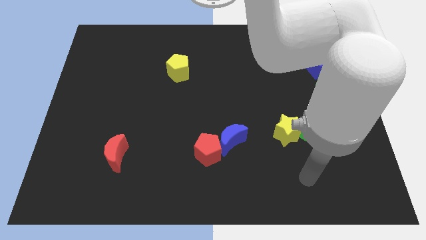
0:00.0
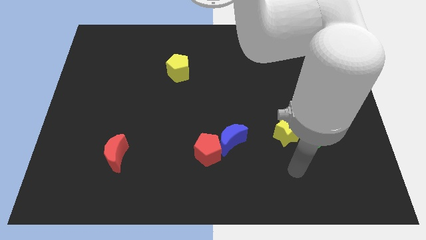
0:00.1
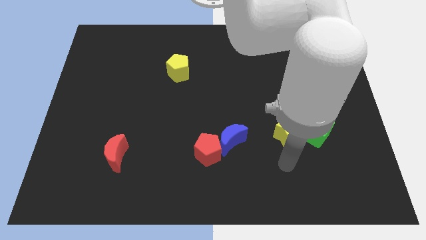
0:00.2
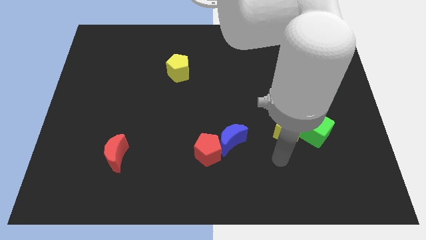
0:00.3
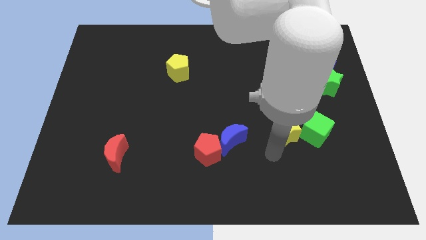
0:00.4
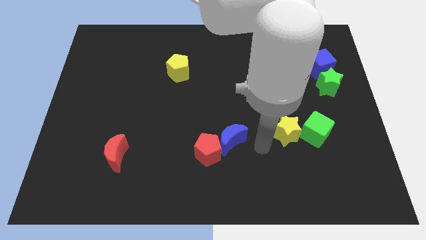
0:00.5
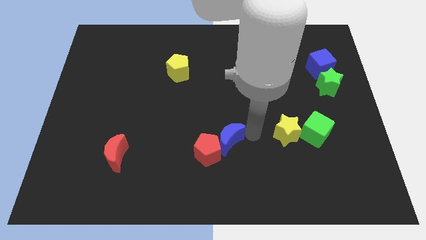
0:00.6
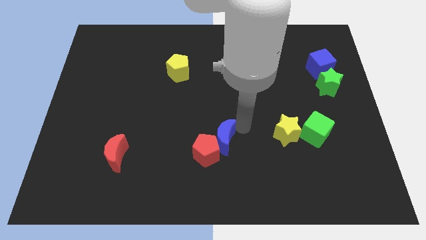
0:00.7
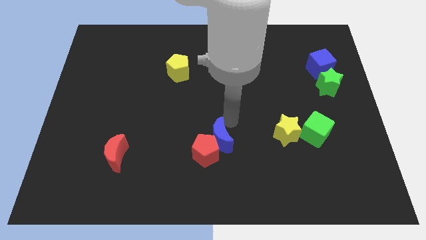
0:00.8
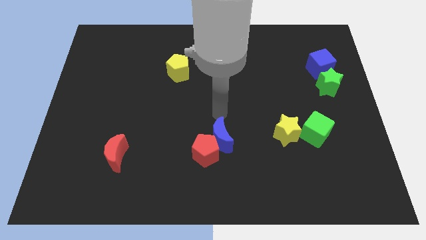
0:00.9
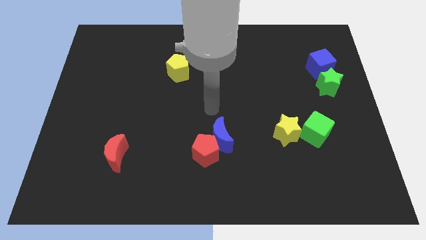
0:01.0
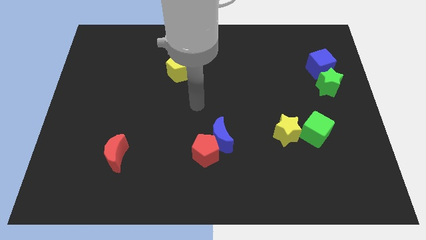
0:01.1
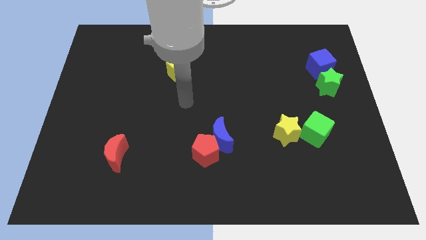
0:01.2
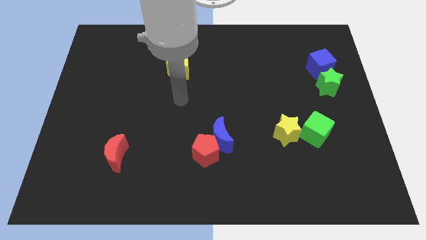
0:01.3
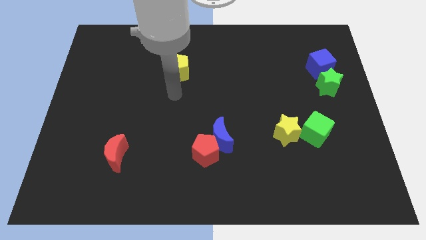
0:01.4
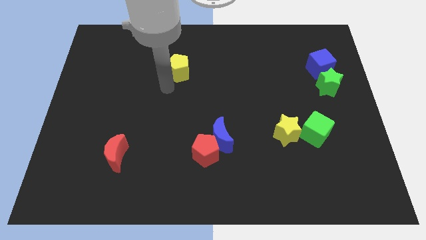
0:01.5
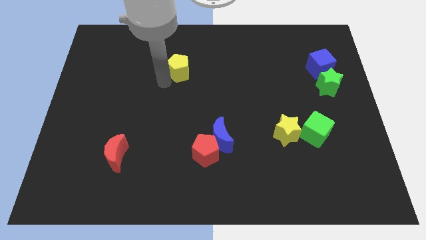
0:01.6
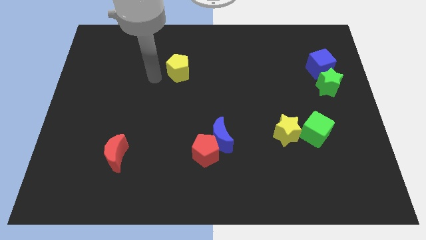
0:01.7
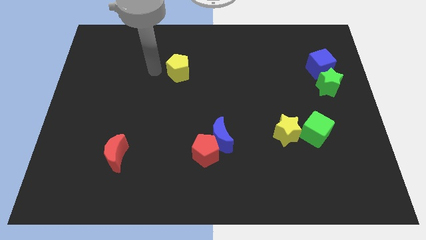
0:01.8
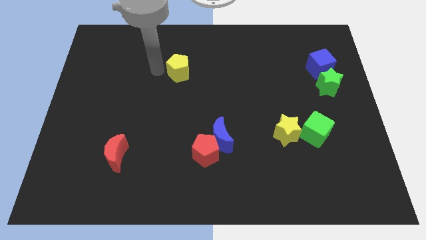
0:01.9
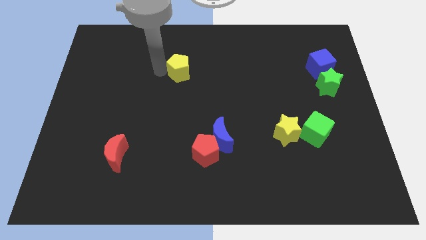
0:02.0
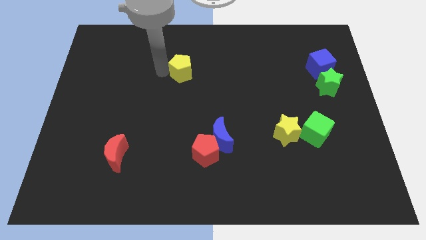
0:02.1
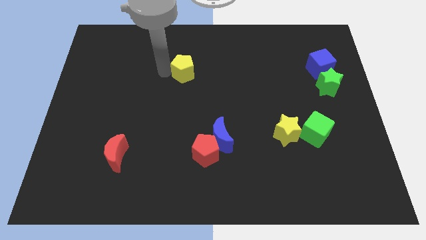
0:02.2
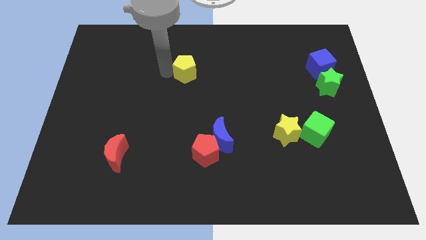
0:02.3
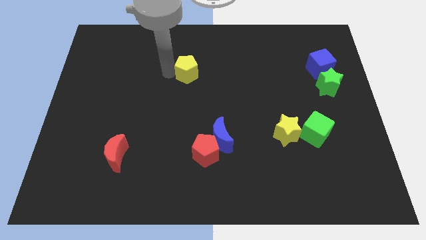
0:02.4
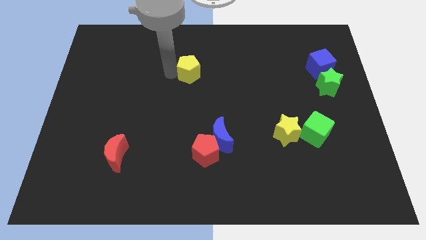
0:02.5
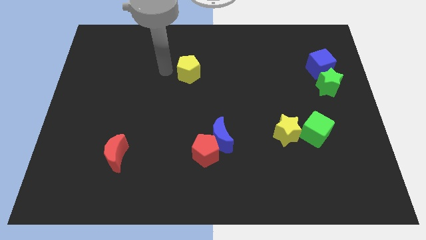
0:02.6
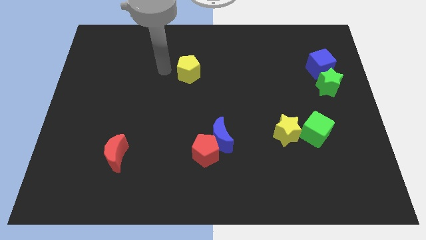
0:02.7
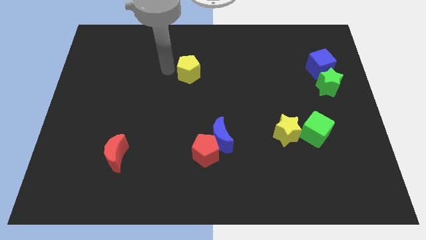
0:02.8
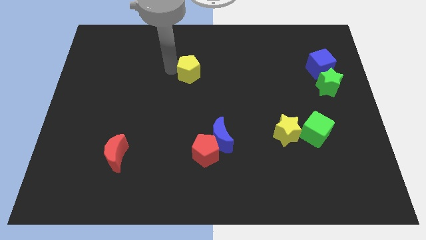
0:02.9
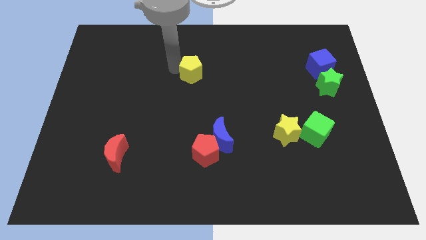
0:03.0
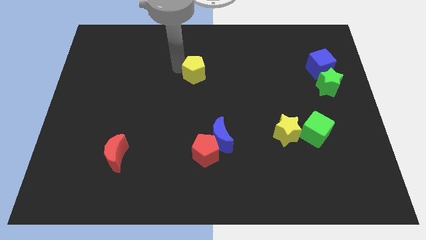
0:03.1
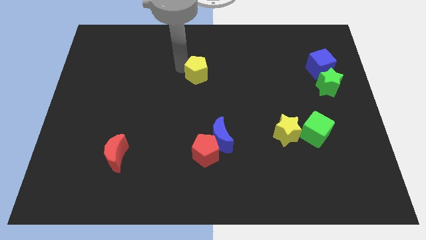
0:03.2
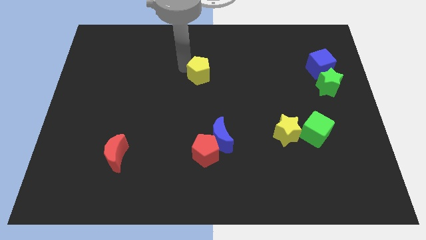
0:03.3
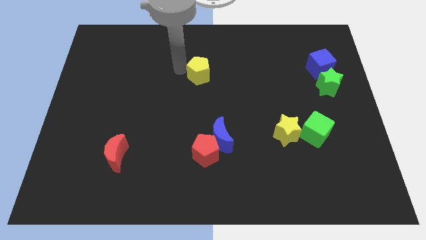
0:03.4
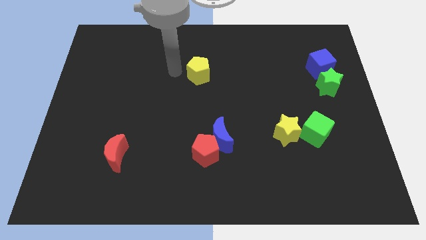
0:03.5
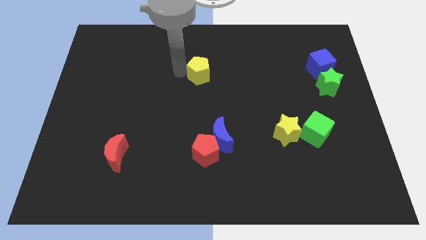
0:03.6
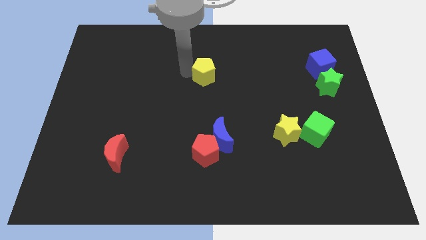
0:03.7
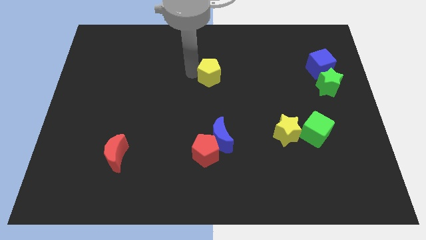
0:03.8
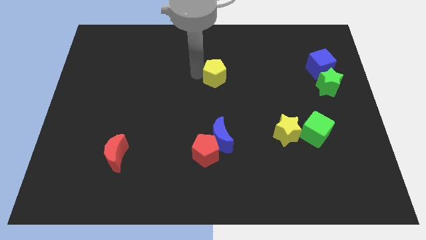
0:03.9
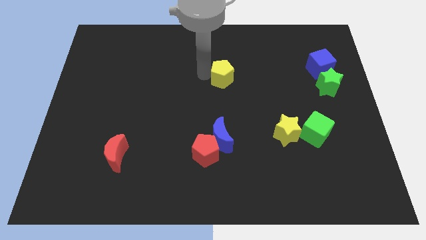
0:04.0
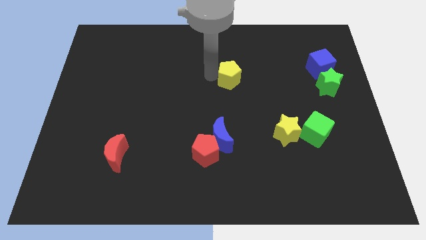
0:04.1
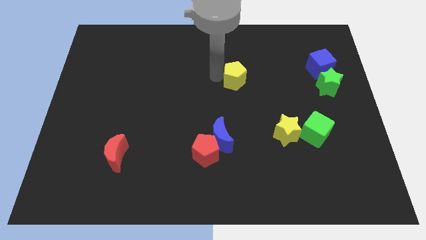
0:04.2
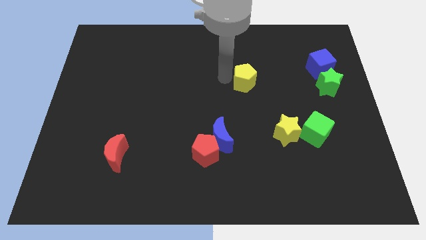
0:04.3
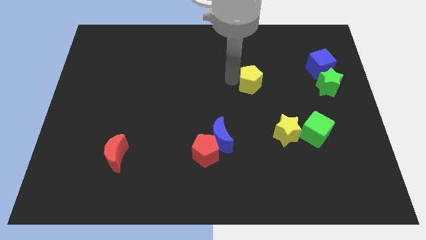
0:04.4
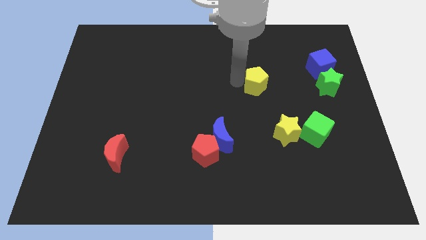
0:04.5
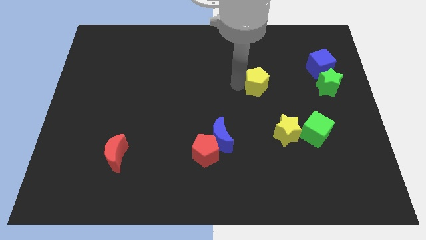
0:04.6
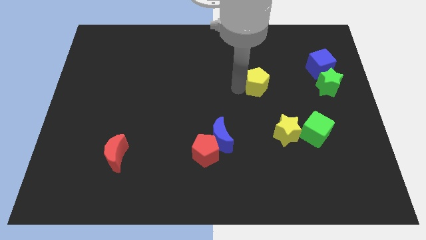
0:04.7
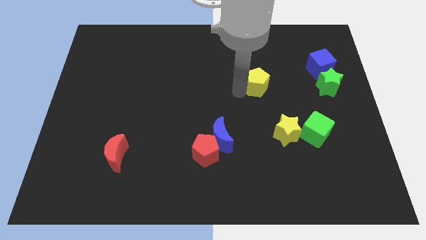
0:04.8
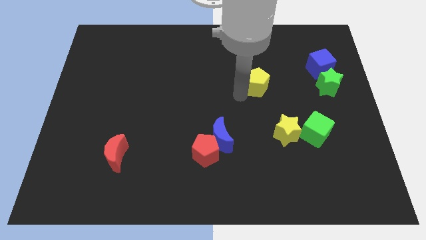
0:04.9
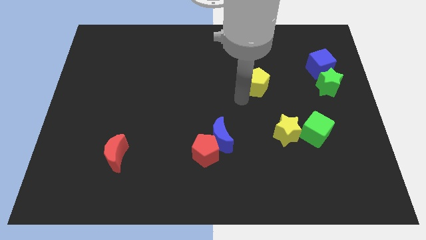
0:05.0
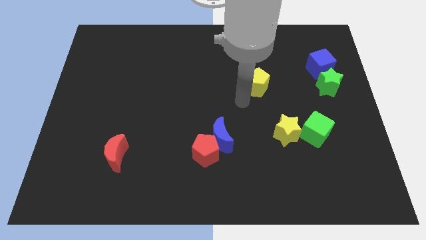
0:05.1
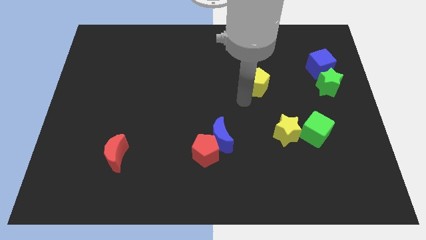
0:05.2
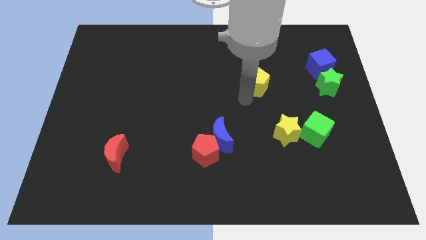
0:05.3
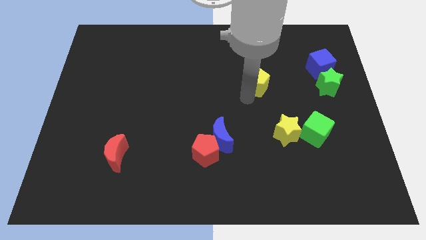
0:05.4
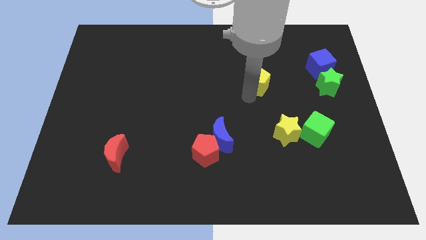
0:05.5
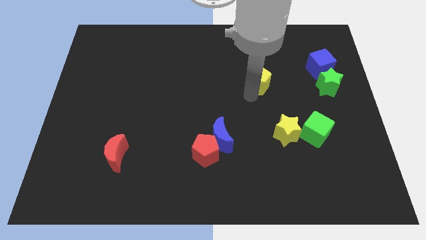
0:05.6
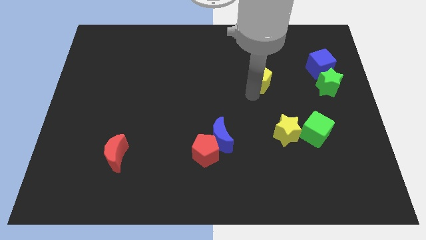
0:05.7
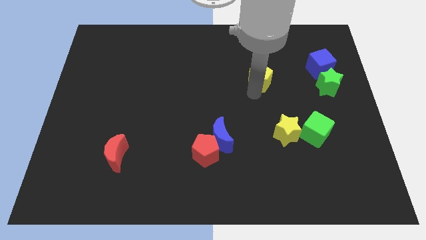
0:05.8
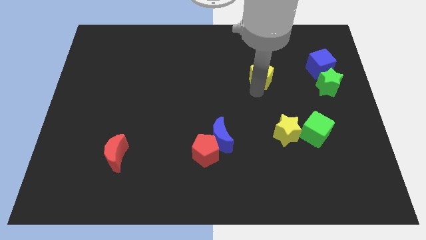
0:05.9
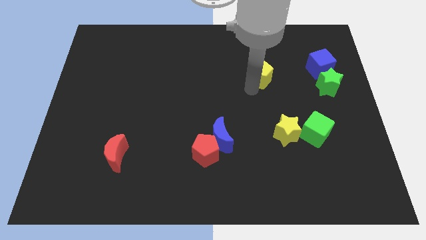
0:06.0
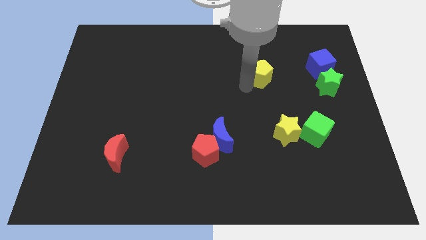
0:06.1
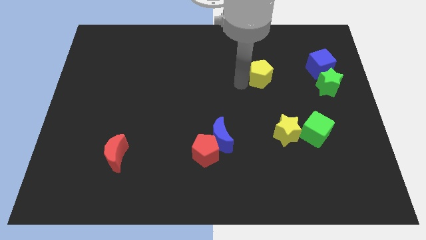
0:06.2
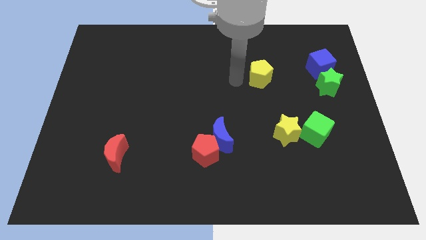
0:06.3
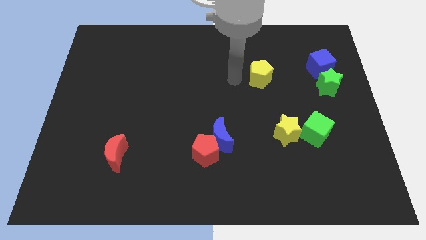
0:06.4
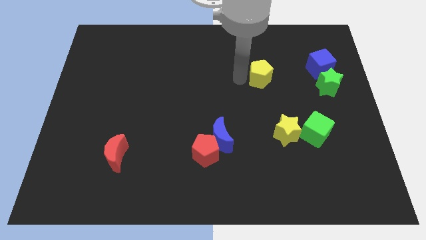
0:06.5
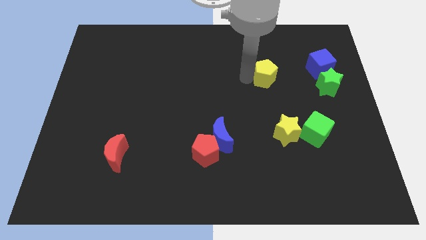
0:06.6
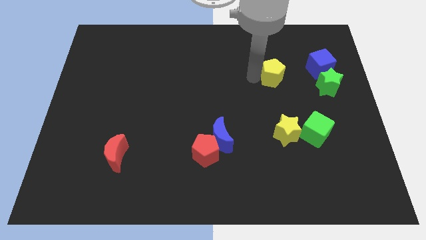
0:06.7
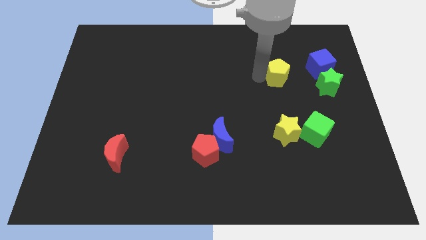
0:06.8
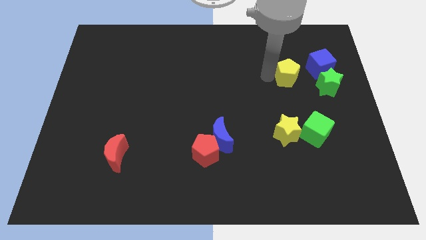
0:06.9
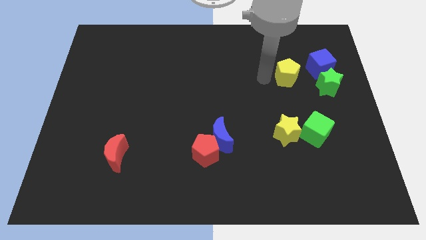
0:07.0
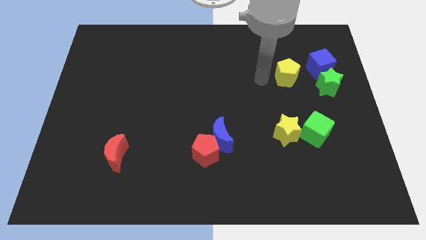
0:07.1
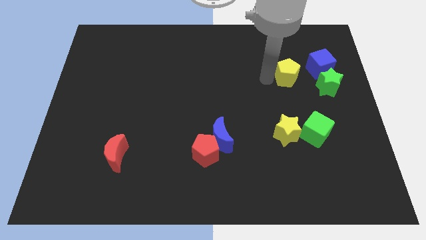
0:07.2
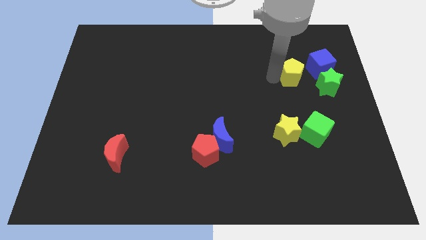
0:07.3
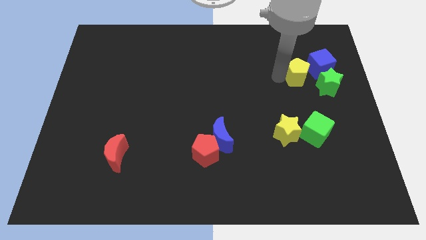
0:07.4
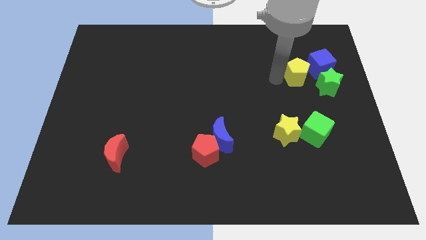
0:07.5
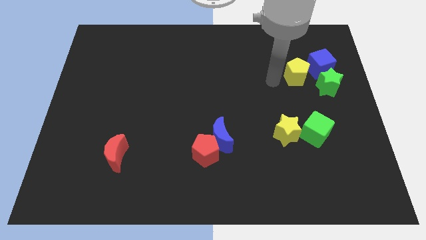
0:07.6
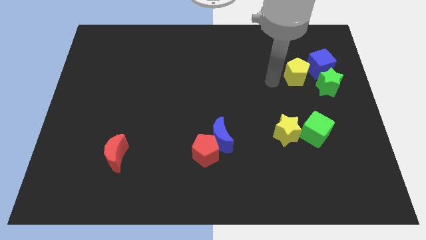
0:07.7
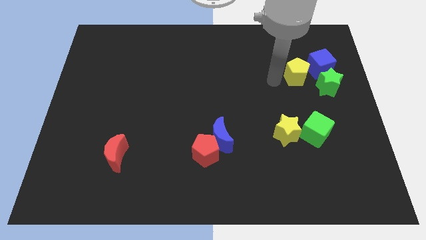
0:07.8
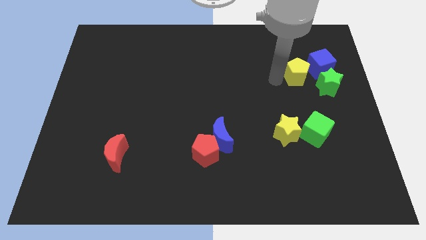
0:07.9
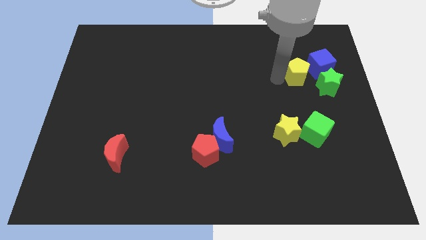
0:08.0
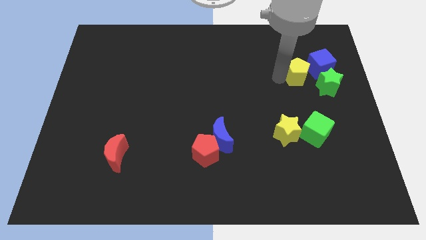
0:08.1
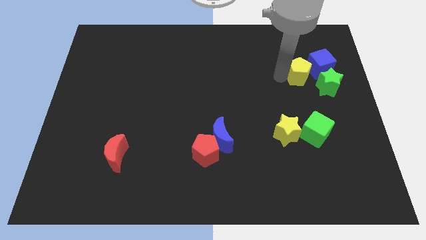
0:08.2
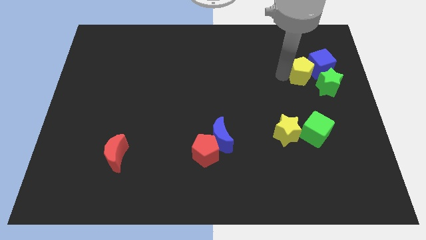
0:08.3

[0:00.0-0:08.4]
slide the yellow pentagon next to the blue cube
